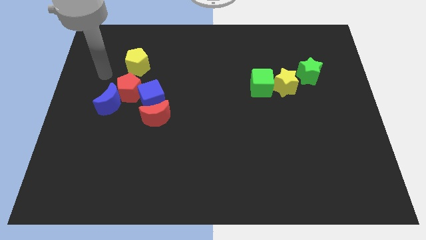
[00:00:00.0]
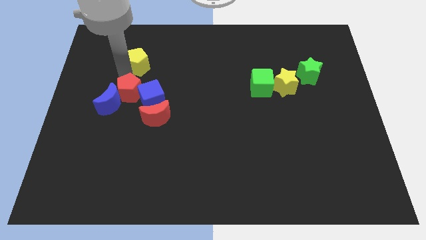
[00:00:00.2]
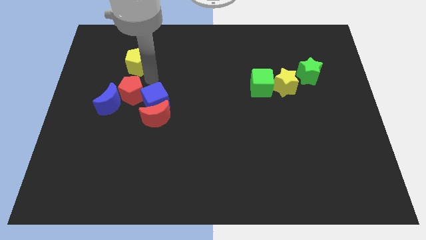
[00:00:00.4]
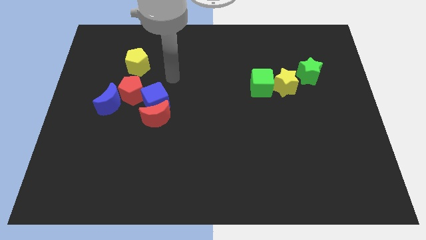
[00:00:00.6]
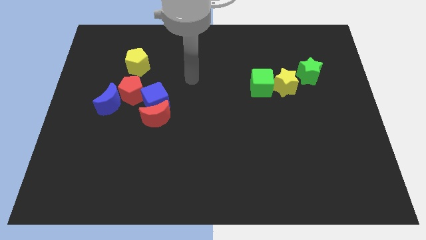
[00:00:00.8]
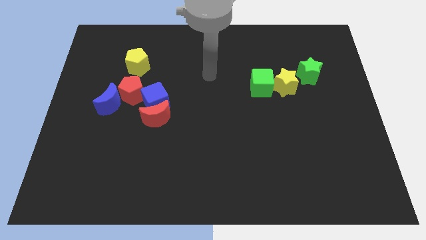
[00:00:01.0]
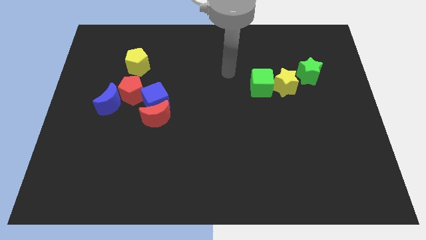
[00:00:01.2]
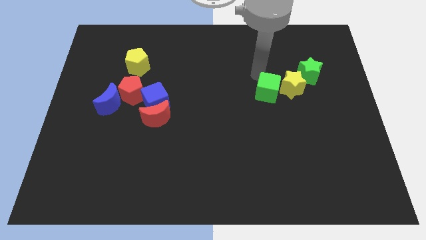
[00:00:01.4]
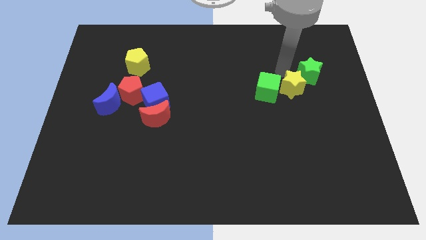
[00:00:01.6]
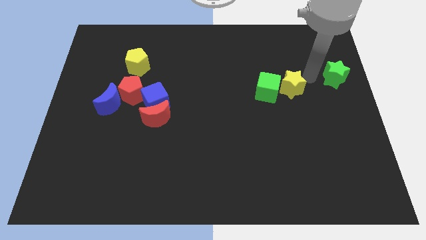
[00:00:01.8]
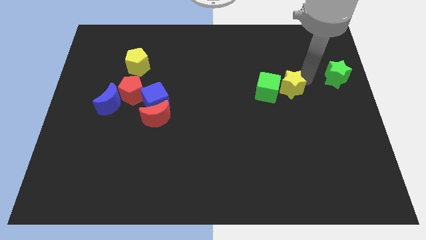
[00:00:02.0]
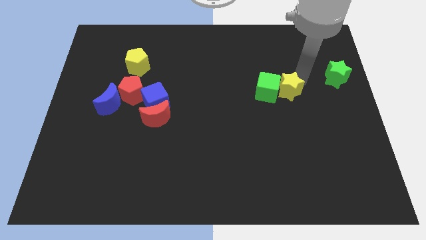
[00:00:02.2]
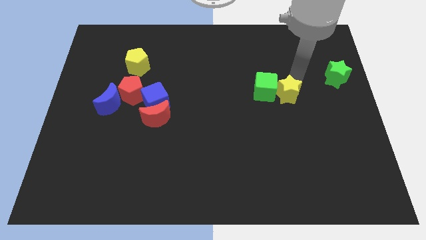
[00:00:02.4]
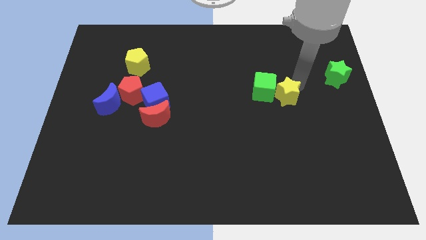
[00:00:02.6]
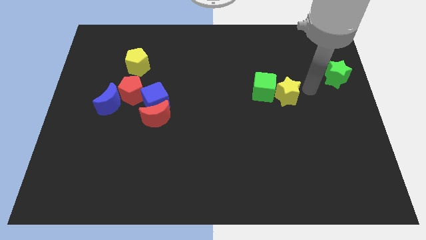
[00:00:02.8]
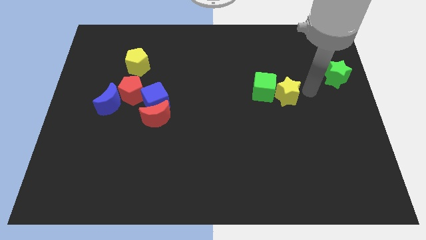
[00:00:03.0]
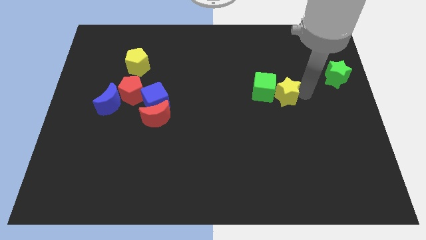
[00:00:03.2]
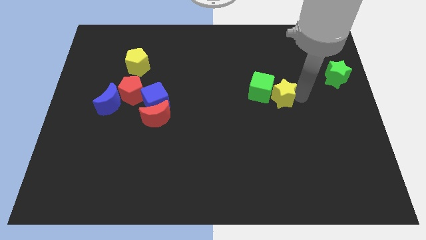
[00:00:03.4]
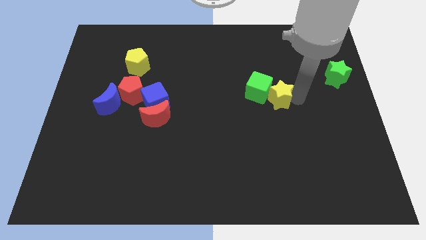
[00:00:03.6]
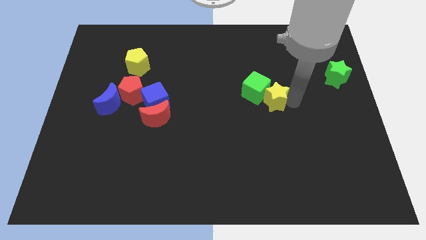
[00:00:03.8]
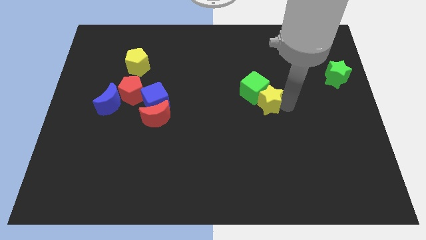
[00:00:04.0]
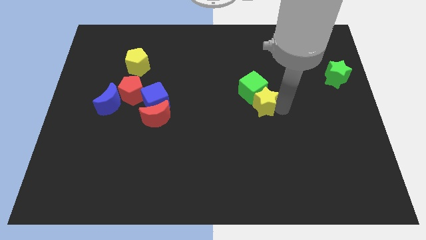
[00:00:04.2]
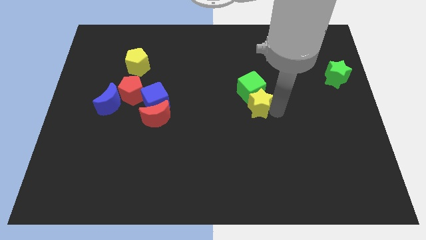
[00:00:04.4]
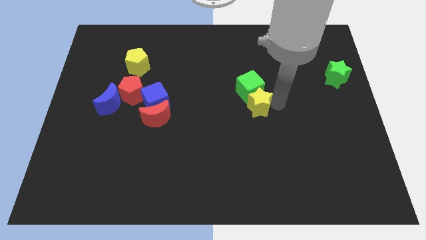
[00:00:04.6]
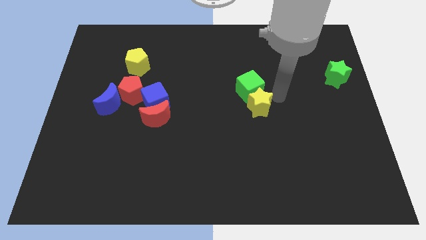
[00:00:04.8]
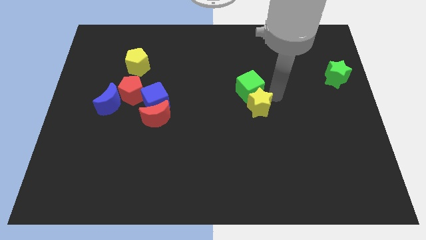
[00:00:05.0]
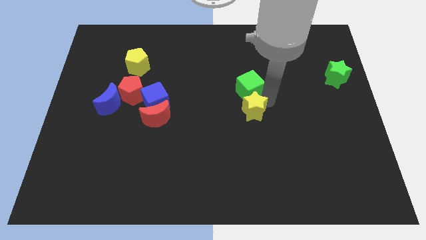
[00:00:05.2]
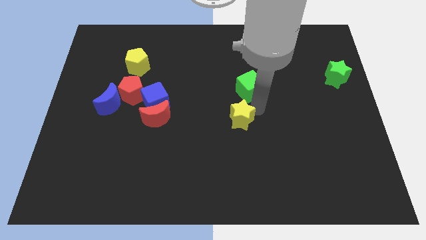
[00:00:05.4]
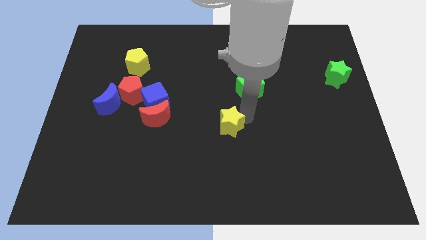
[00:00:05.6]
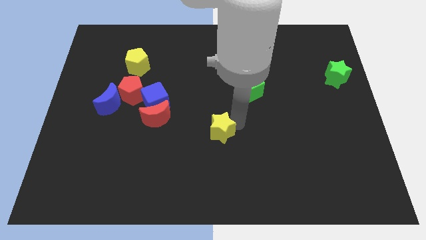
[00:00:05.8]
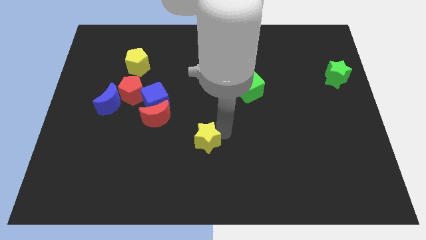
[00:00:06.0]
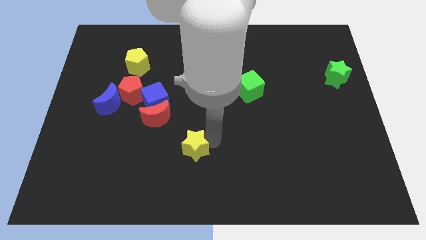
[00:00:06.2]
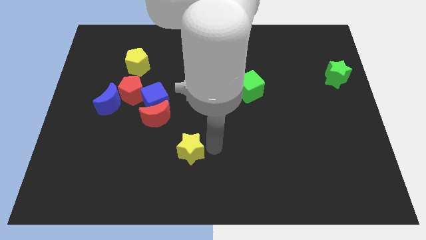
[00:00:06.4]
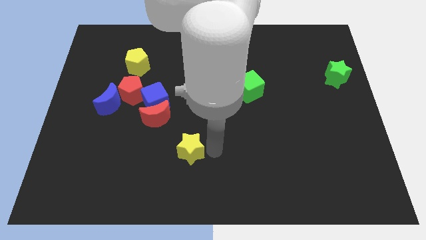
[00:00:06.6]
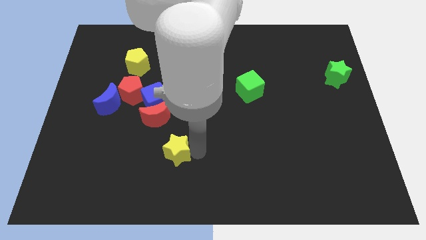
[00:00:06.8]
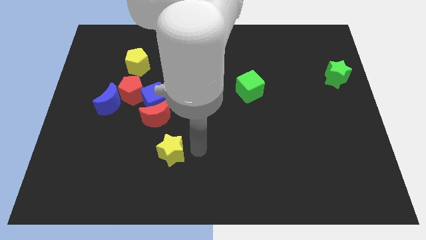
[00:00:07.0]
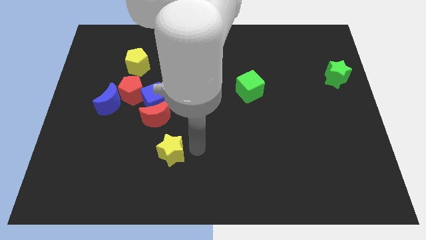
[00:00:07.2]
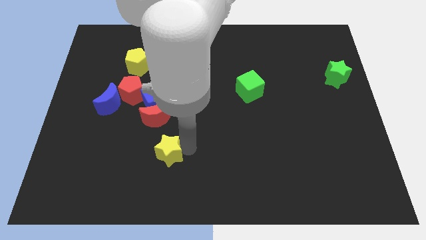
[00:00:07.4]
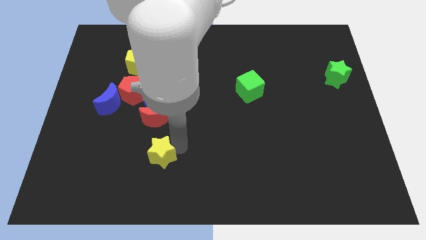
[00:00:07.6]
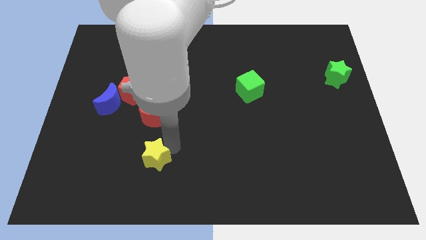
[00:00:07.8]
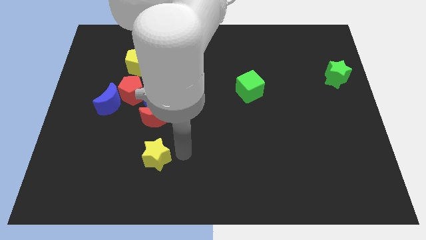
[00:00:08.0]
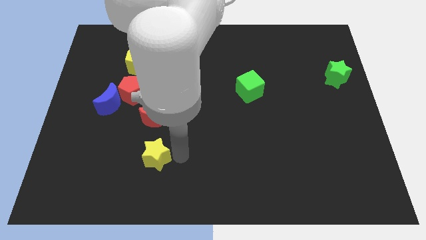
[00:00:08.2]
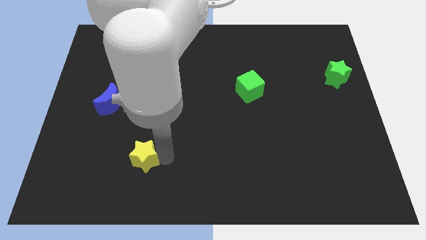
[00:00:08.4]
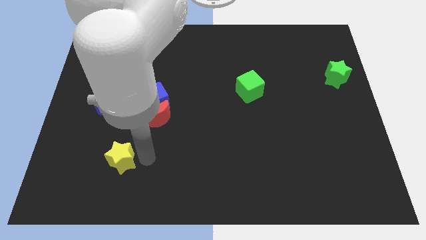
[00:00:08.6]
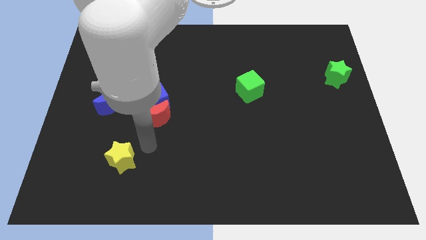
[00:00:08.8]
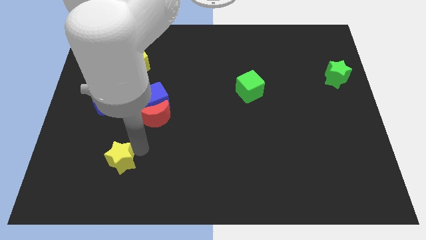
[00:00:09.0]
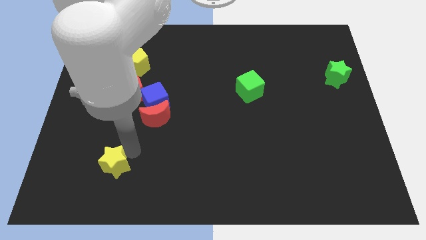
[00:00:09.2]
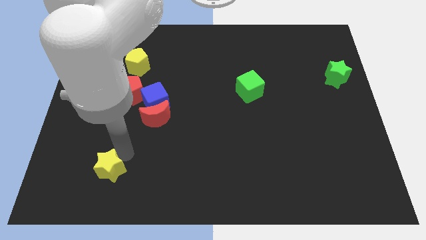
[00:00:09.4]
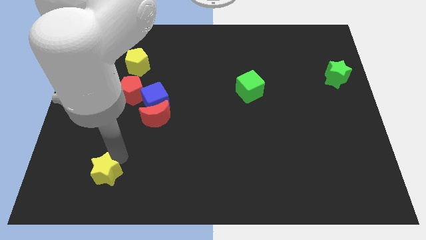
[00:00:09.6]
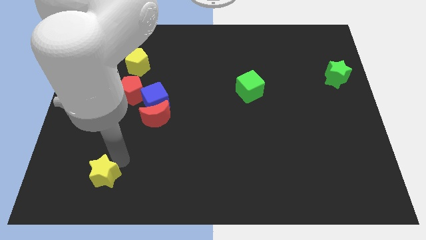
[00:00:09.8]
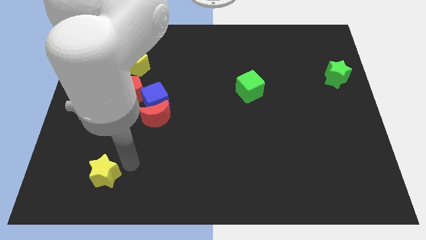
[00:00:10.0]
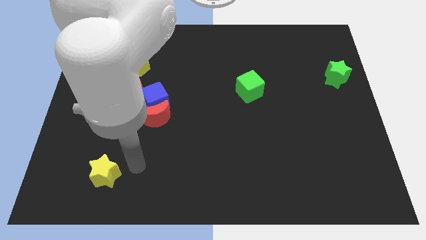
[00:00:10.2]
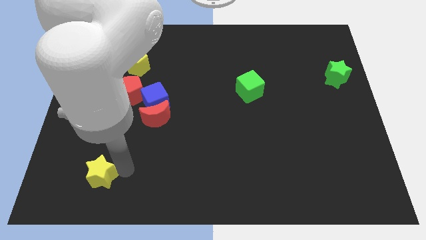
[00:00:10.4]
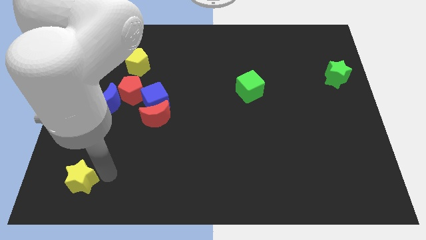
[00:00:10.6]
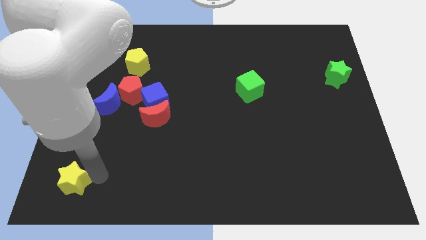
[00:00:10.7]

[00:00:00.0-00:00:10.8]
push the yellow star to the lower left corner

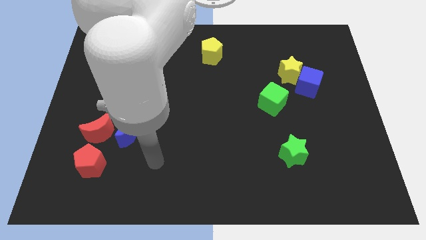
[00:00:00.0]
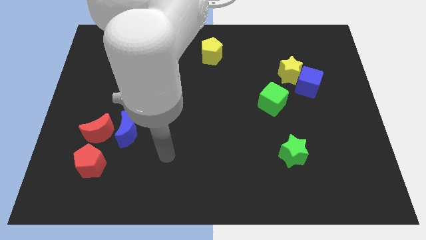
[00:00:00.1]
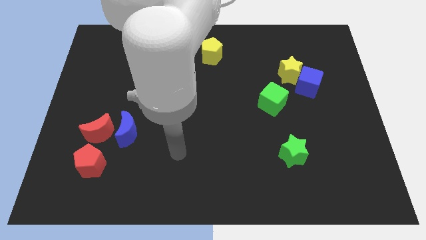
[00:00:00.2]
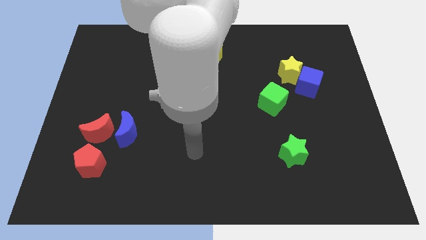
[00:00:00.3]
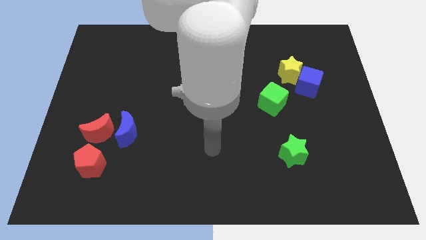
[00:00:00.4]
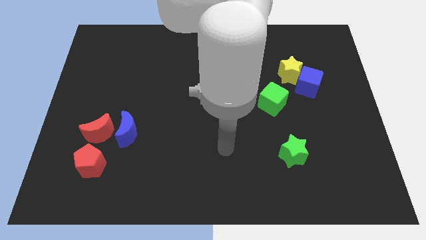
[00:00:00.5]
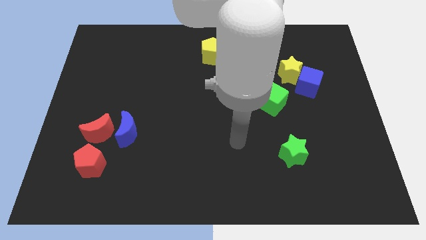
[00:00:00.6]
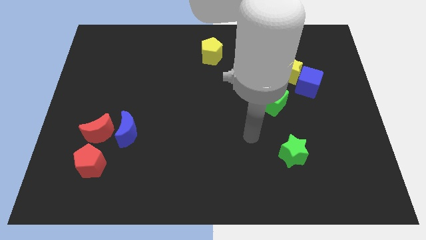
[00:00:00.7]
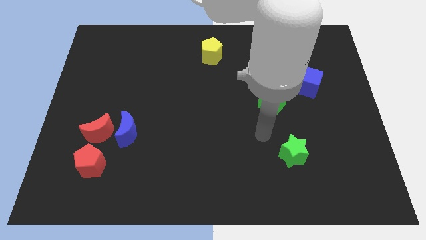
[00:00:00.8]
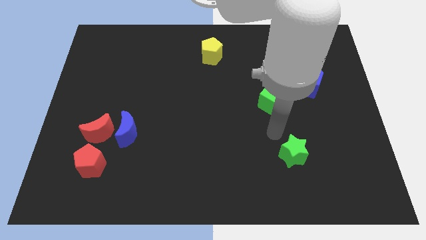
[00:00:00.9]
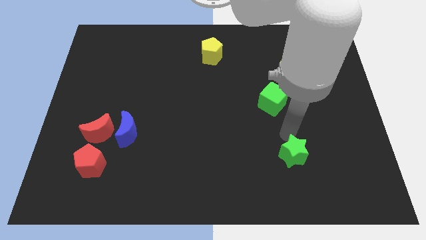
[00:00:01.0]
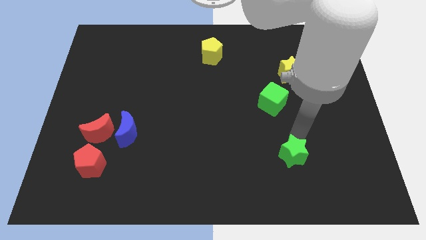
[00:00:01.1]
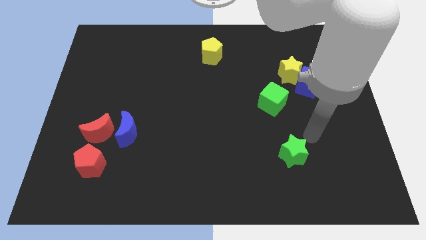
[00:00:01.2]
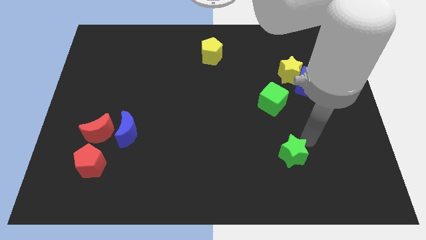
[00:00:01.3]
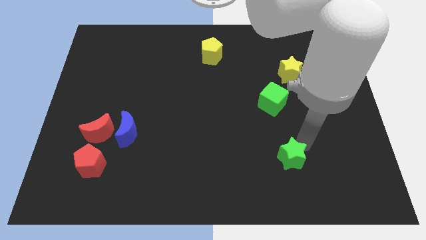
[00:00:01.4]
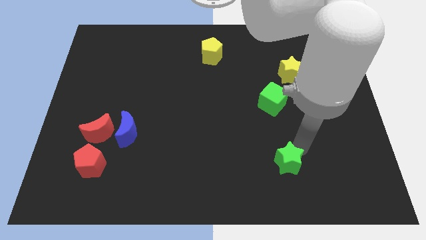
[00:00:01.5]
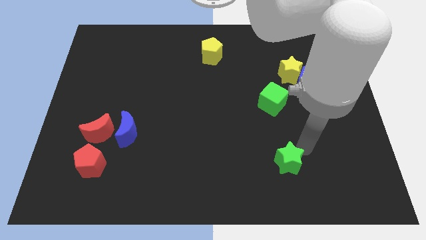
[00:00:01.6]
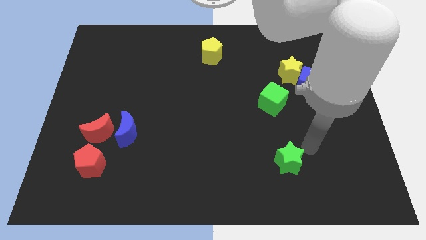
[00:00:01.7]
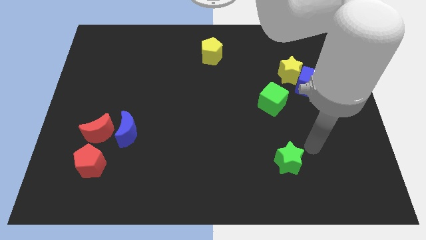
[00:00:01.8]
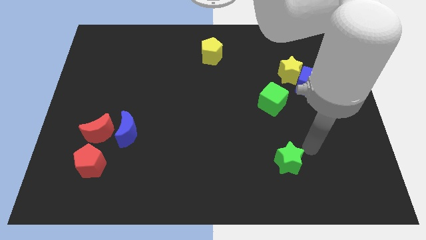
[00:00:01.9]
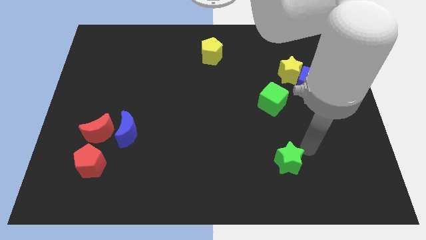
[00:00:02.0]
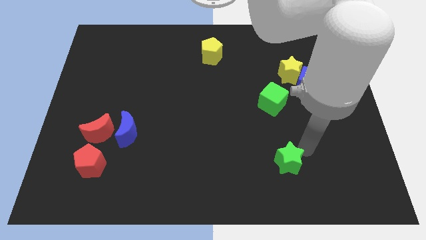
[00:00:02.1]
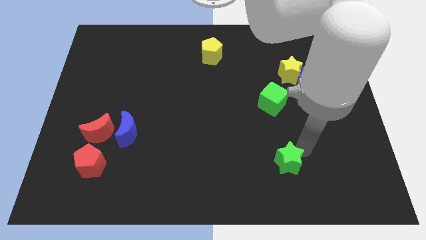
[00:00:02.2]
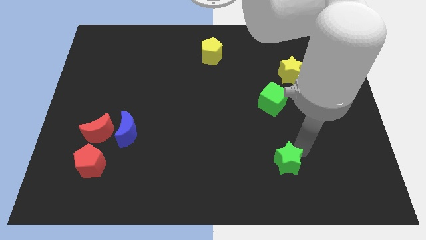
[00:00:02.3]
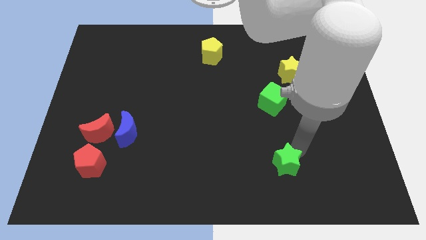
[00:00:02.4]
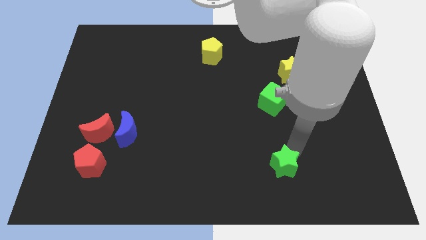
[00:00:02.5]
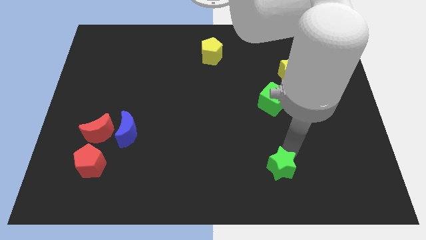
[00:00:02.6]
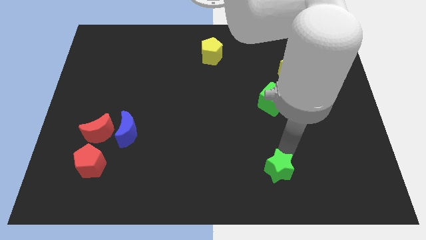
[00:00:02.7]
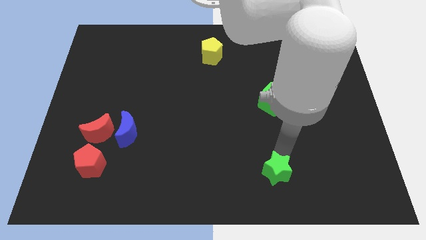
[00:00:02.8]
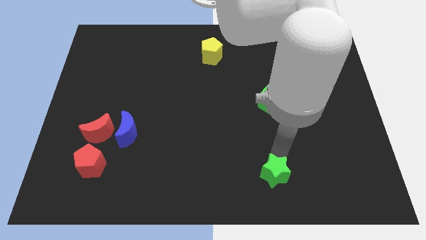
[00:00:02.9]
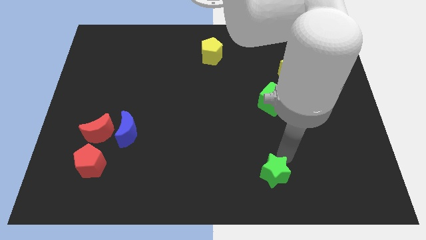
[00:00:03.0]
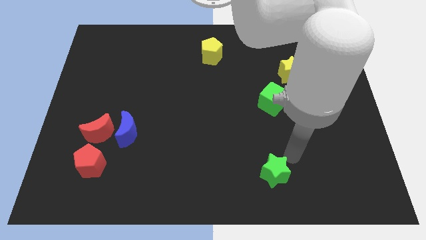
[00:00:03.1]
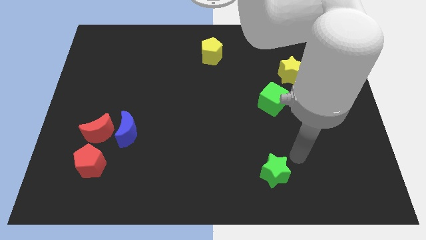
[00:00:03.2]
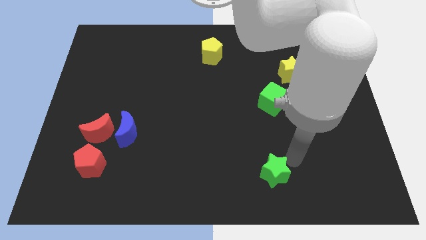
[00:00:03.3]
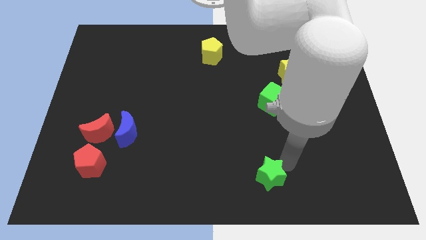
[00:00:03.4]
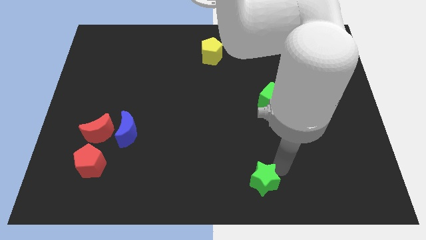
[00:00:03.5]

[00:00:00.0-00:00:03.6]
push the green star to the bottom
